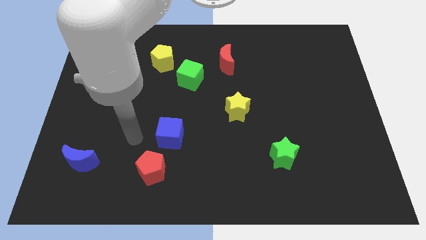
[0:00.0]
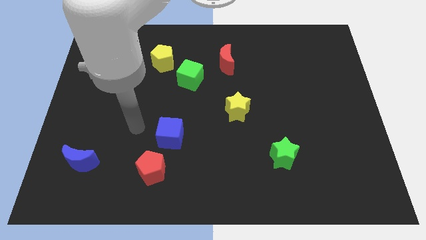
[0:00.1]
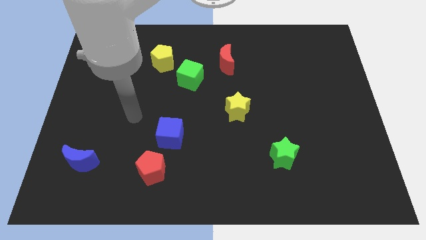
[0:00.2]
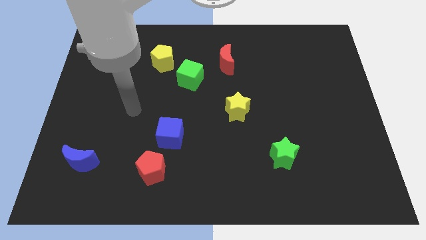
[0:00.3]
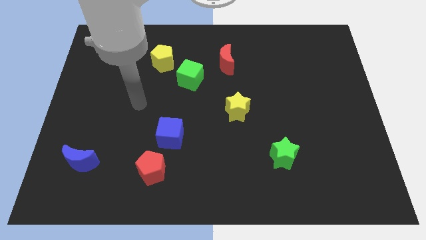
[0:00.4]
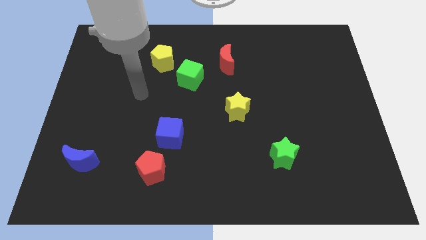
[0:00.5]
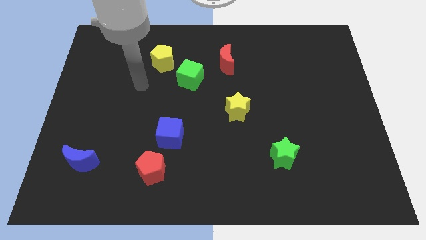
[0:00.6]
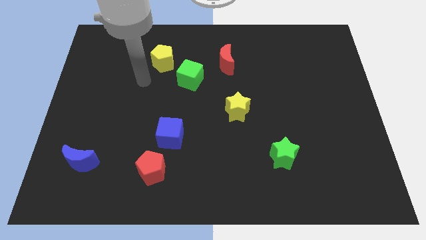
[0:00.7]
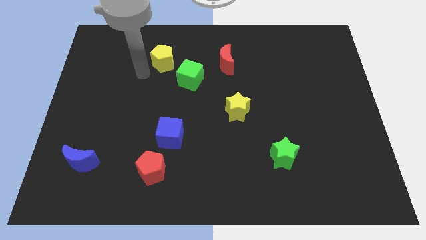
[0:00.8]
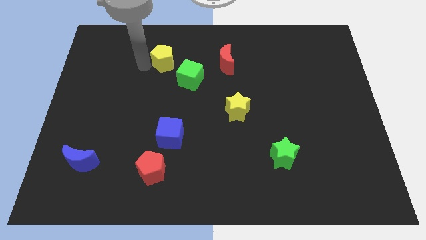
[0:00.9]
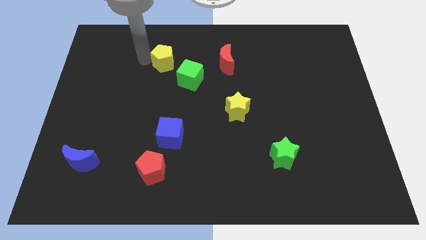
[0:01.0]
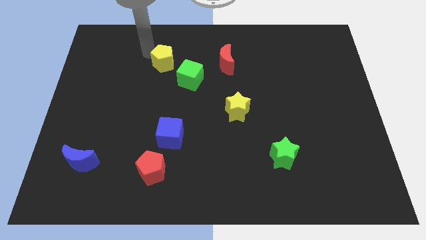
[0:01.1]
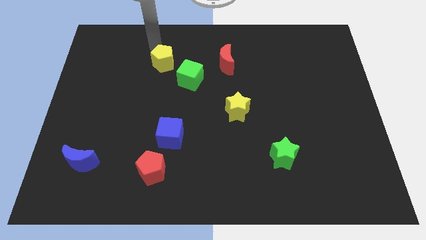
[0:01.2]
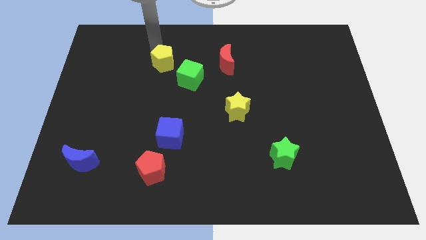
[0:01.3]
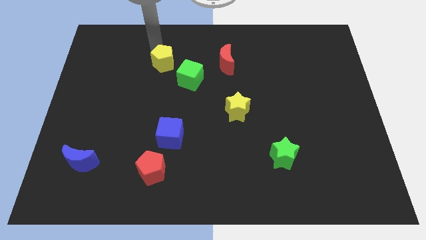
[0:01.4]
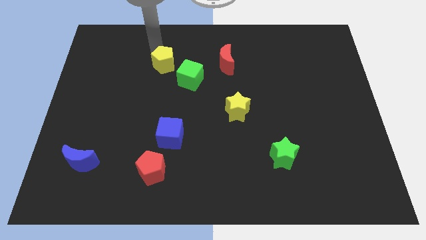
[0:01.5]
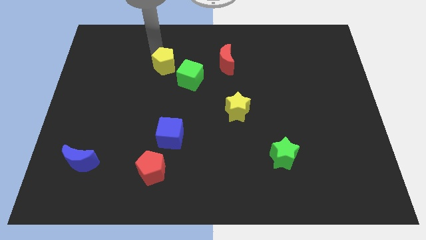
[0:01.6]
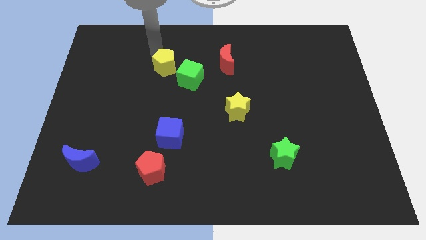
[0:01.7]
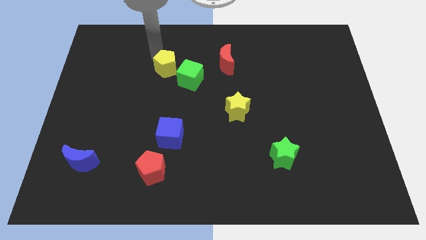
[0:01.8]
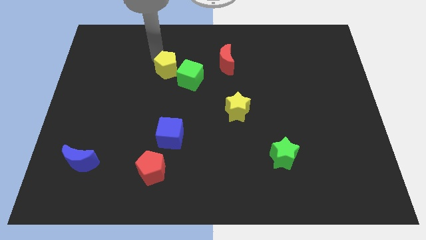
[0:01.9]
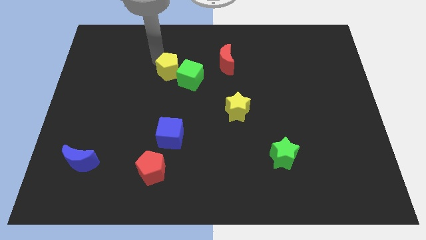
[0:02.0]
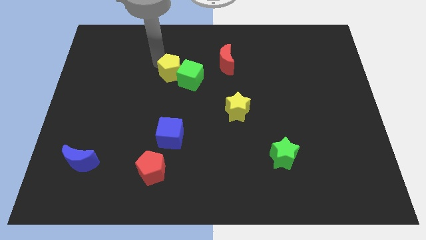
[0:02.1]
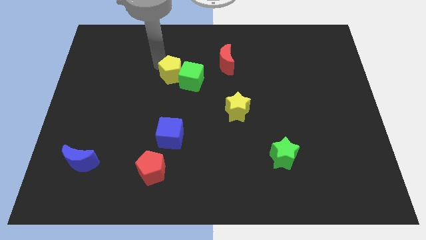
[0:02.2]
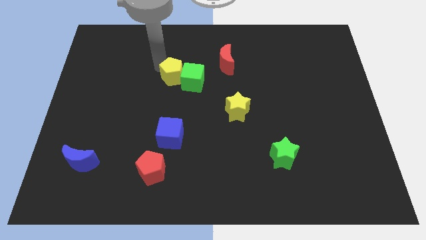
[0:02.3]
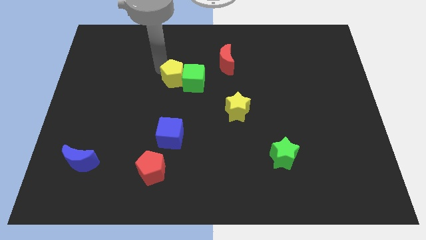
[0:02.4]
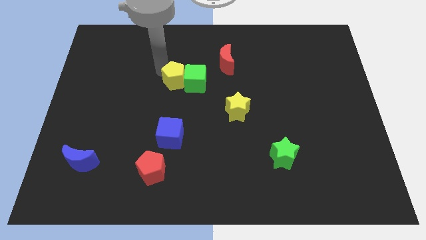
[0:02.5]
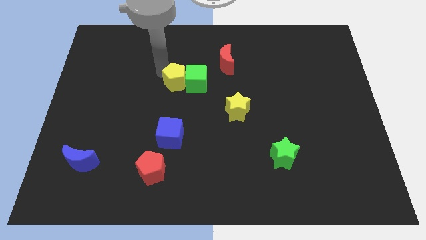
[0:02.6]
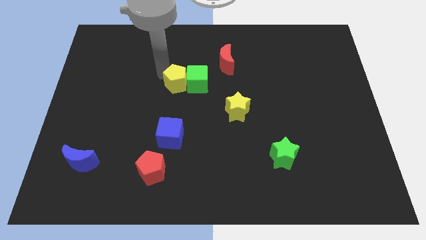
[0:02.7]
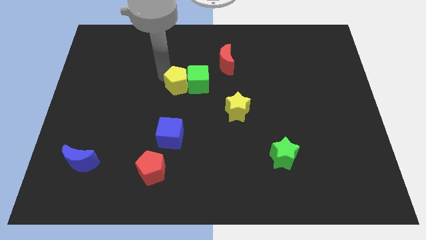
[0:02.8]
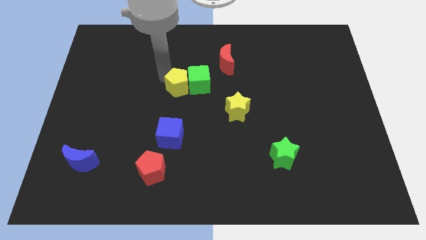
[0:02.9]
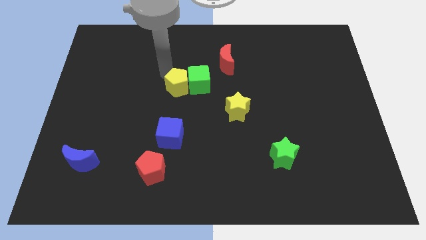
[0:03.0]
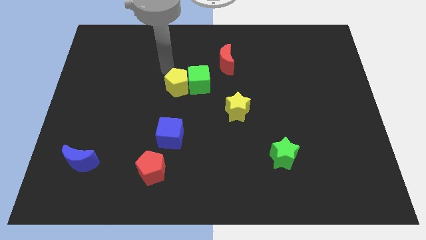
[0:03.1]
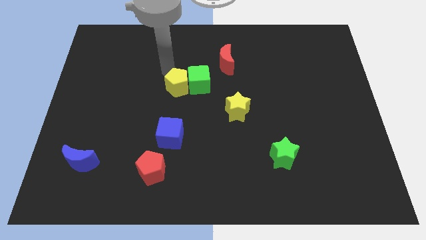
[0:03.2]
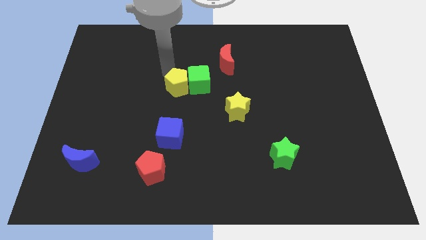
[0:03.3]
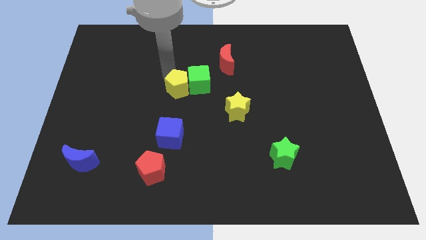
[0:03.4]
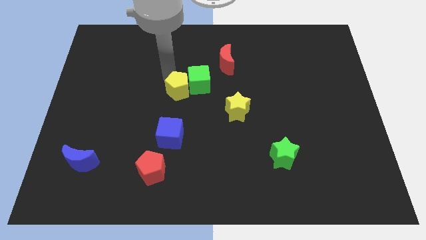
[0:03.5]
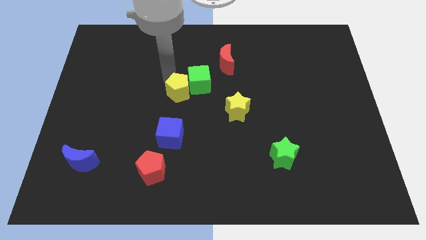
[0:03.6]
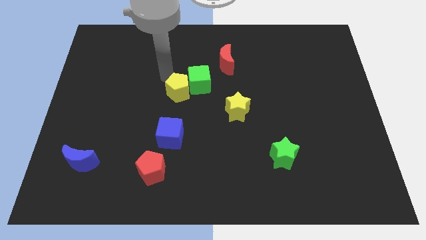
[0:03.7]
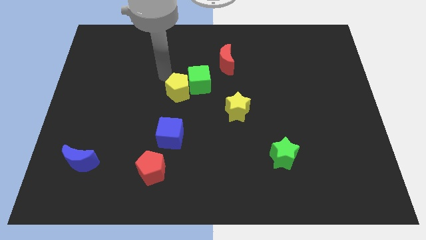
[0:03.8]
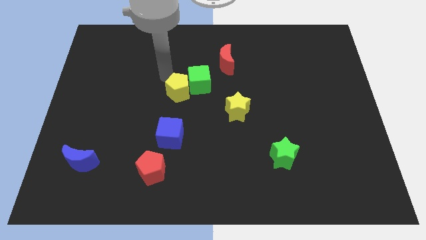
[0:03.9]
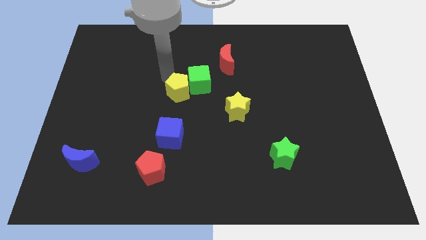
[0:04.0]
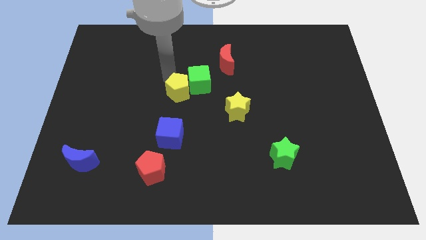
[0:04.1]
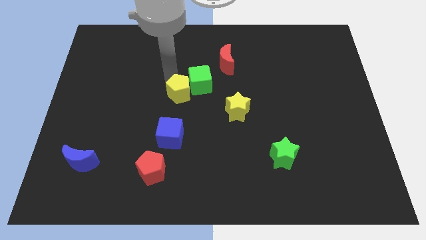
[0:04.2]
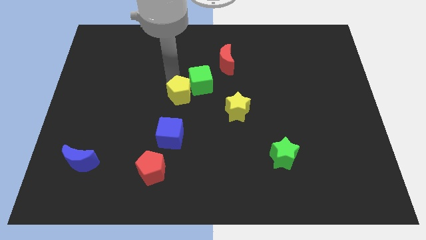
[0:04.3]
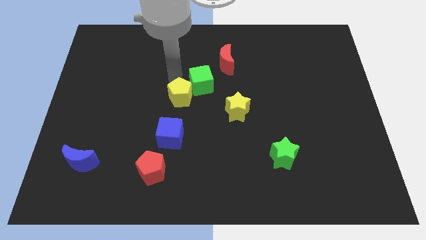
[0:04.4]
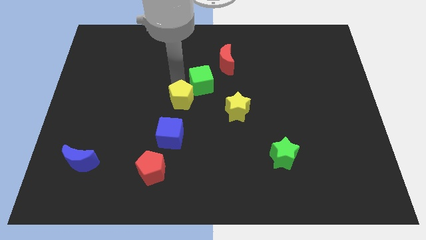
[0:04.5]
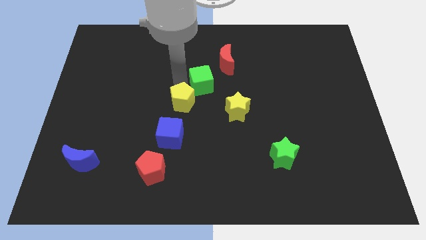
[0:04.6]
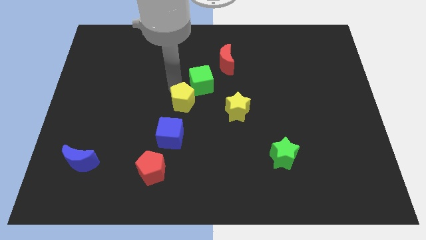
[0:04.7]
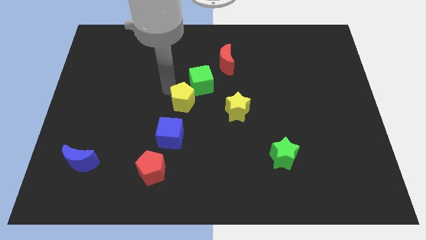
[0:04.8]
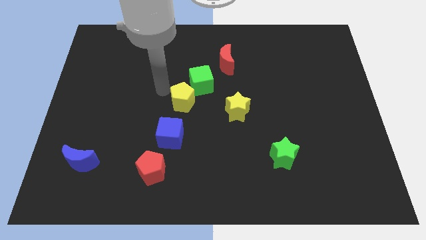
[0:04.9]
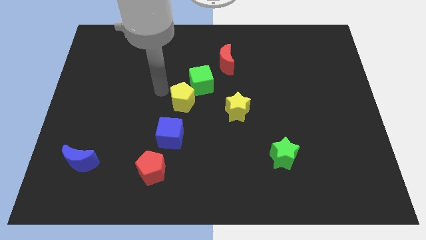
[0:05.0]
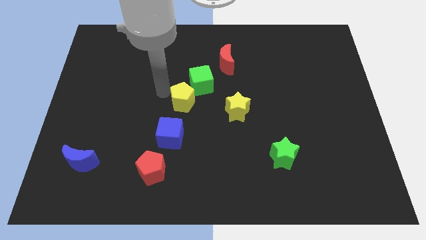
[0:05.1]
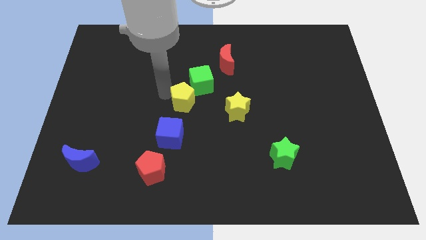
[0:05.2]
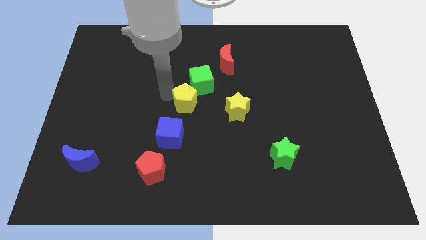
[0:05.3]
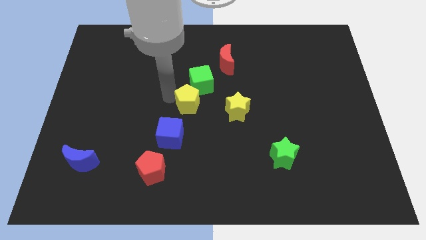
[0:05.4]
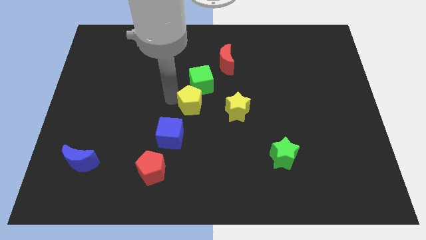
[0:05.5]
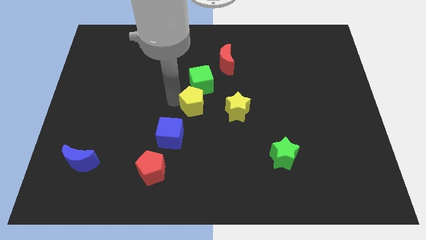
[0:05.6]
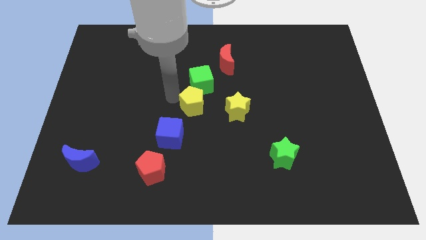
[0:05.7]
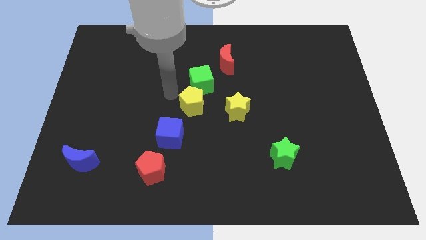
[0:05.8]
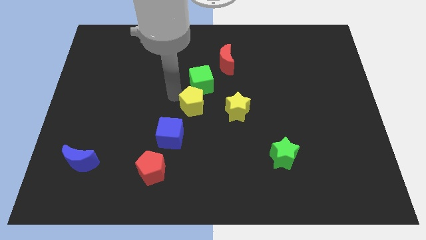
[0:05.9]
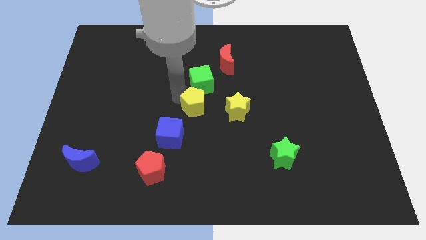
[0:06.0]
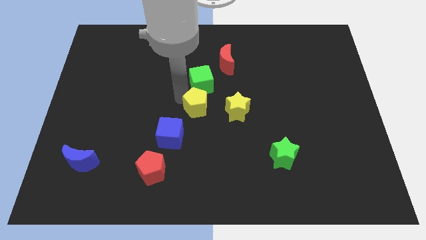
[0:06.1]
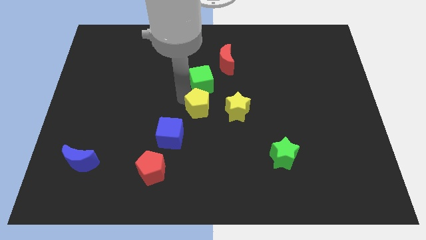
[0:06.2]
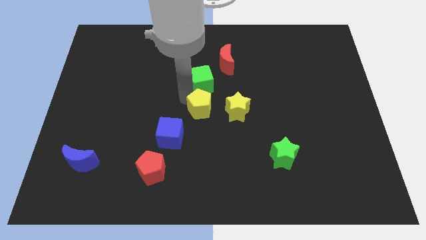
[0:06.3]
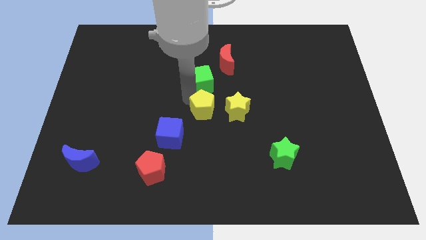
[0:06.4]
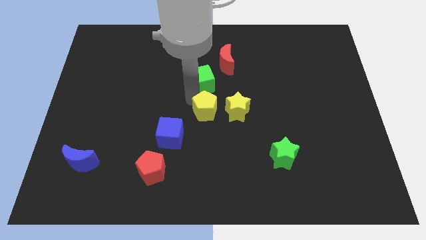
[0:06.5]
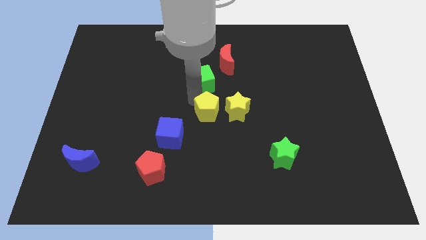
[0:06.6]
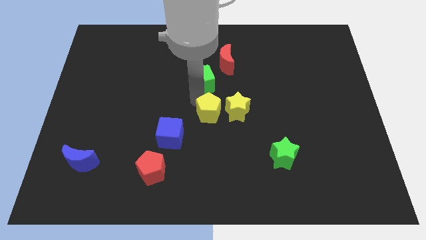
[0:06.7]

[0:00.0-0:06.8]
push the yellow pentagon downwards and right diagonally

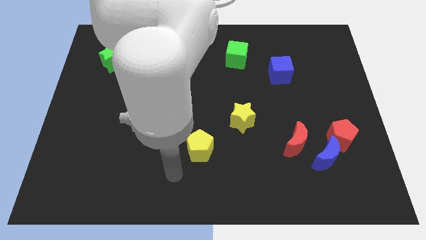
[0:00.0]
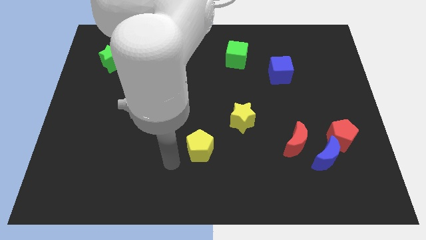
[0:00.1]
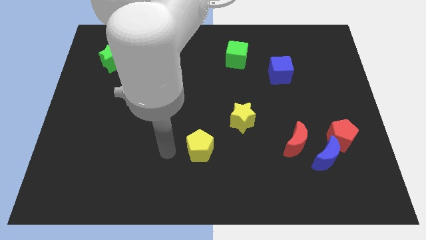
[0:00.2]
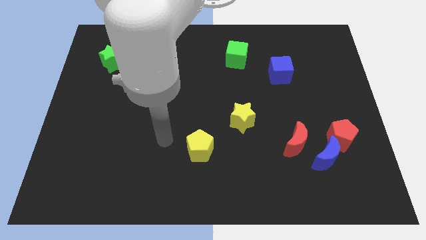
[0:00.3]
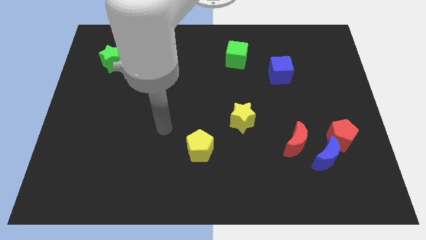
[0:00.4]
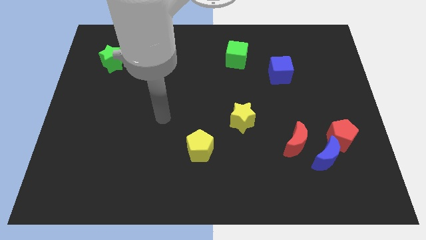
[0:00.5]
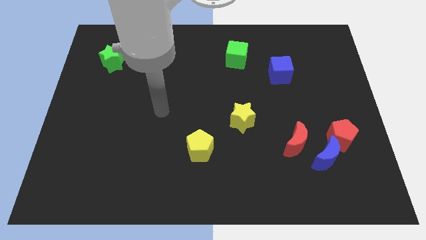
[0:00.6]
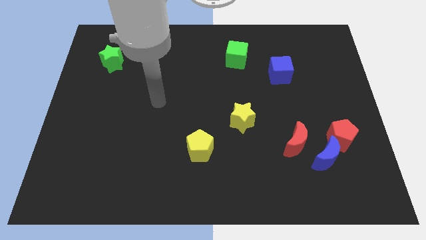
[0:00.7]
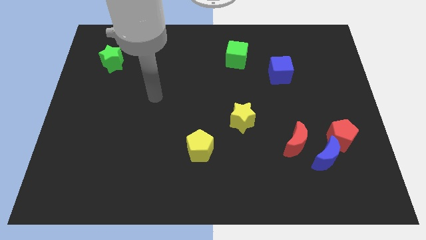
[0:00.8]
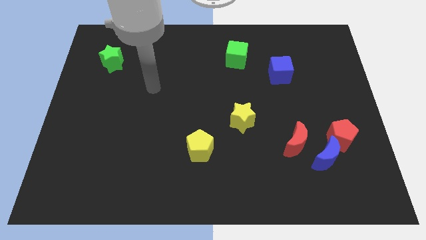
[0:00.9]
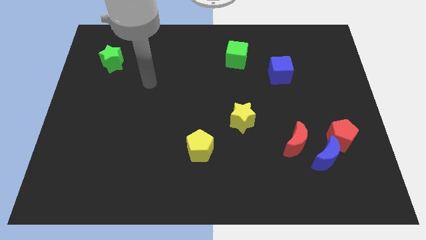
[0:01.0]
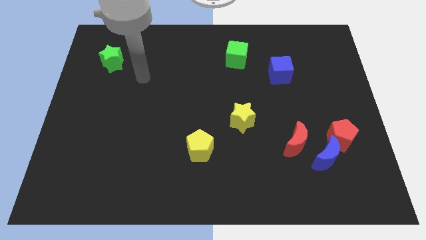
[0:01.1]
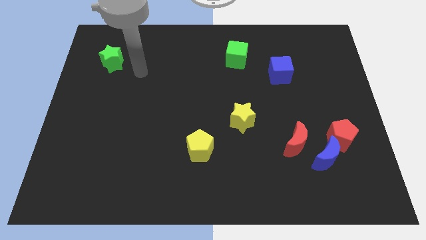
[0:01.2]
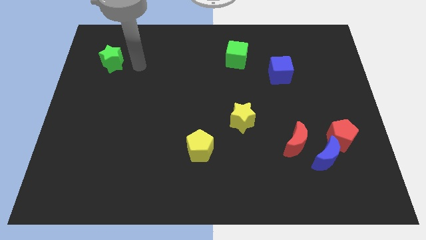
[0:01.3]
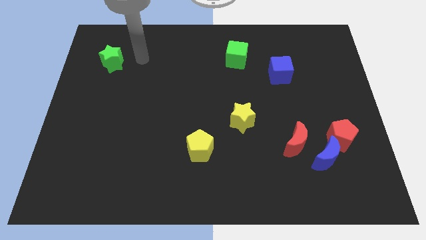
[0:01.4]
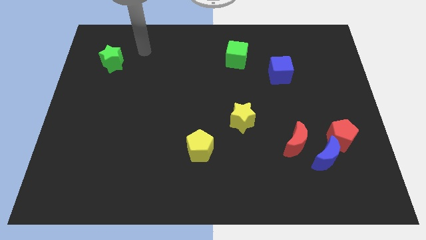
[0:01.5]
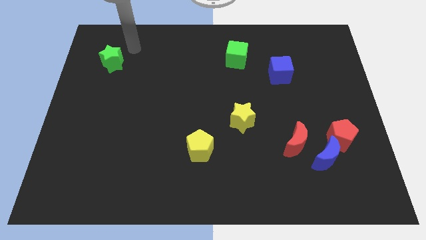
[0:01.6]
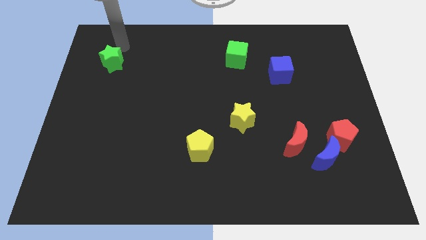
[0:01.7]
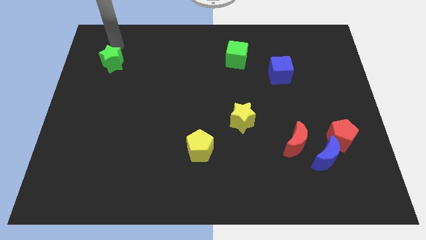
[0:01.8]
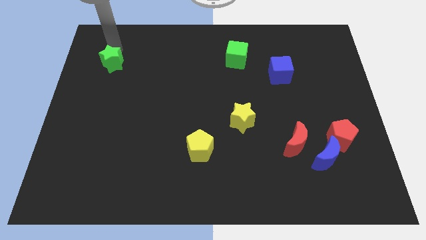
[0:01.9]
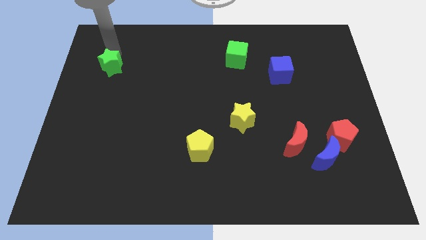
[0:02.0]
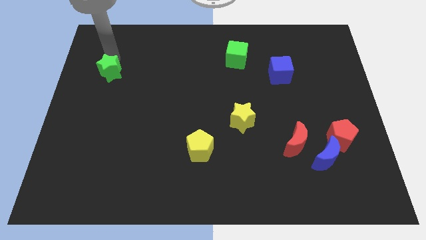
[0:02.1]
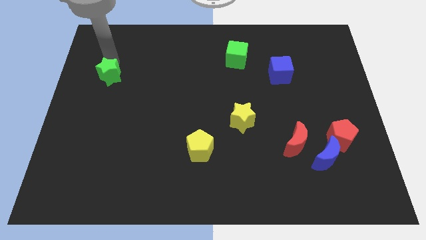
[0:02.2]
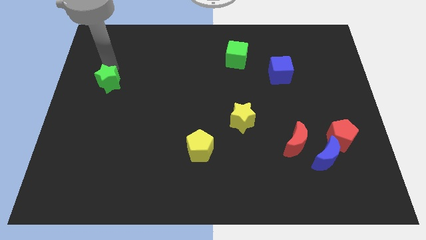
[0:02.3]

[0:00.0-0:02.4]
move the green star down a little
